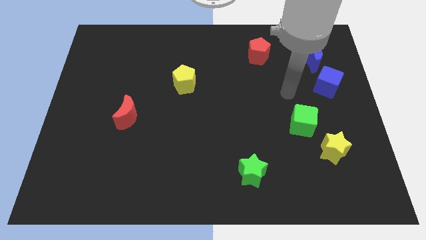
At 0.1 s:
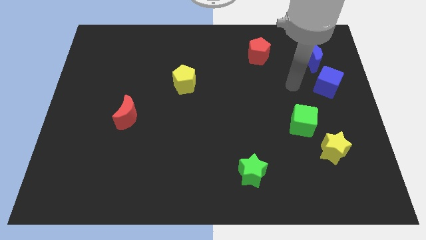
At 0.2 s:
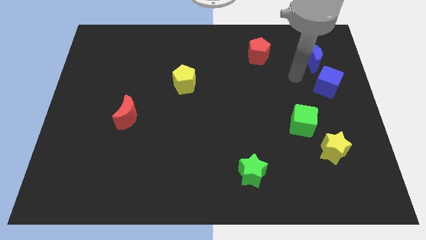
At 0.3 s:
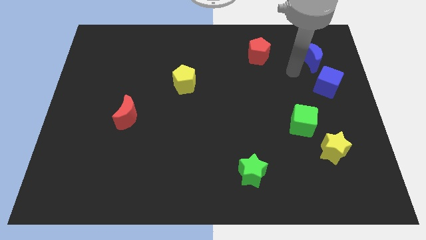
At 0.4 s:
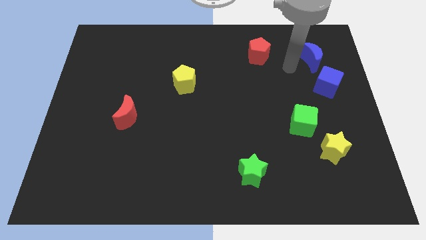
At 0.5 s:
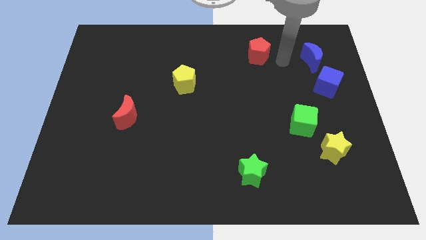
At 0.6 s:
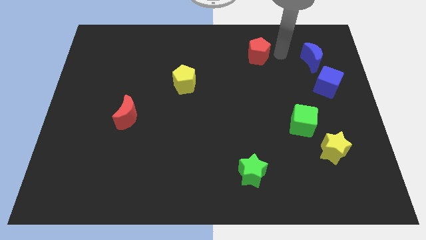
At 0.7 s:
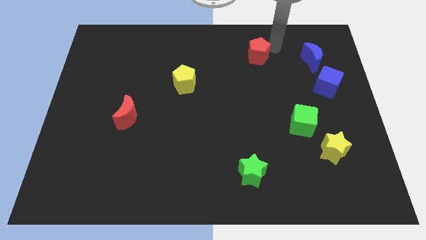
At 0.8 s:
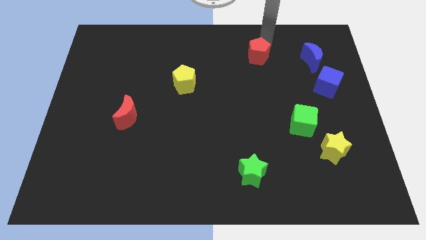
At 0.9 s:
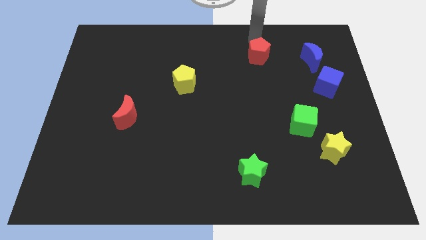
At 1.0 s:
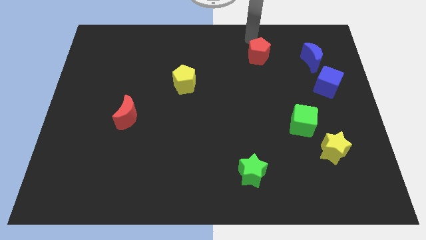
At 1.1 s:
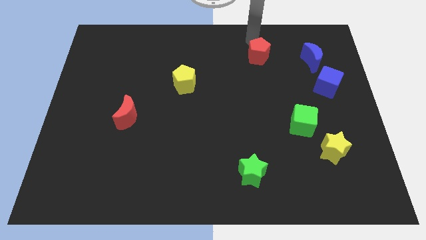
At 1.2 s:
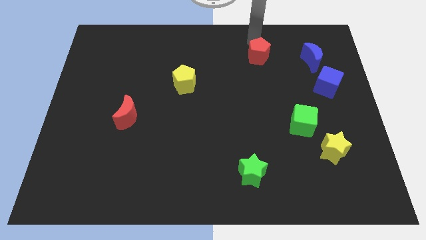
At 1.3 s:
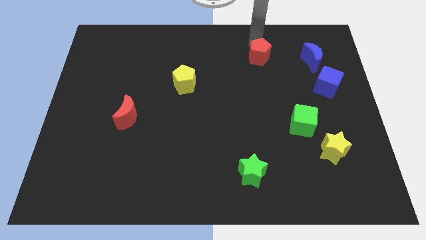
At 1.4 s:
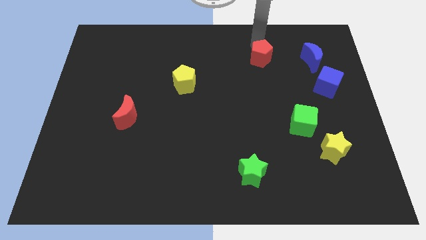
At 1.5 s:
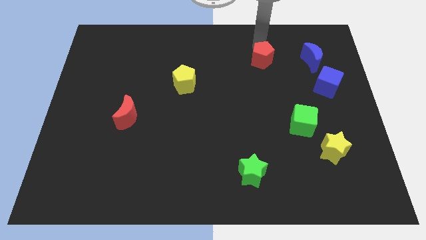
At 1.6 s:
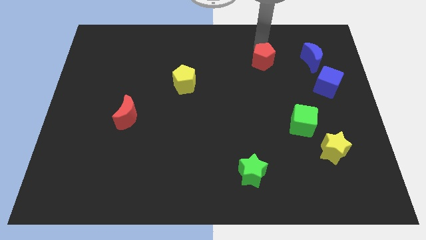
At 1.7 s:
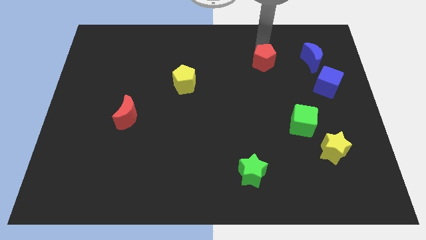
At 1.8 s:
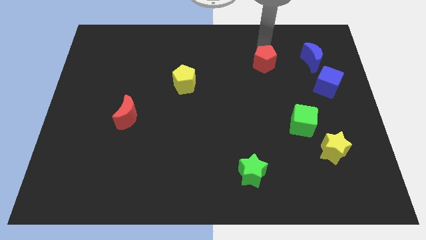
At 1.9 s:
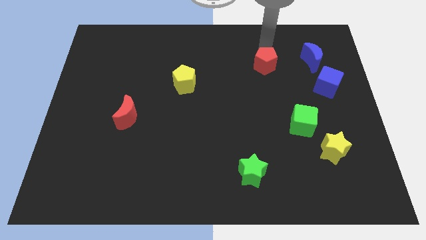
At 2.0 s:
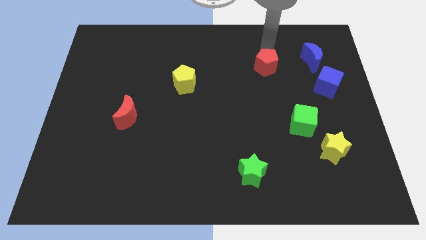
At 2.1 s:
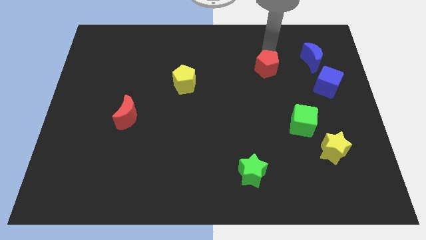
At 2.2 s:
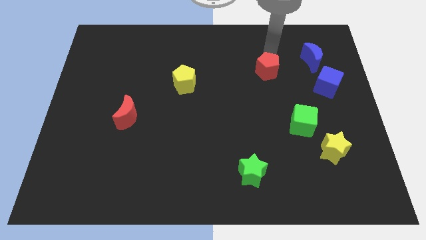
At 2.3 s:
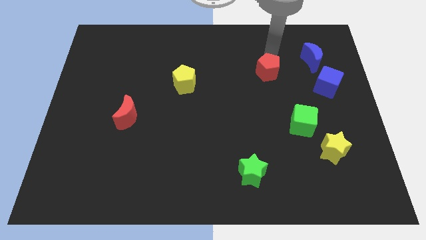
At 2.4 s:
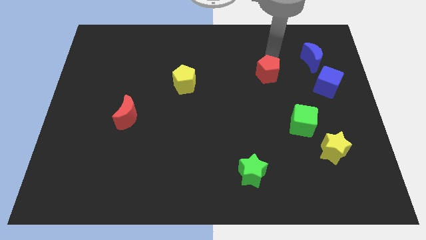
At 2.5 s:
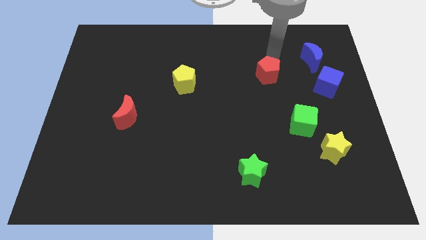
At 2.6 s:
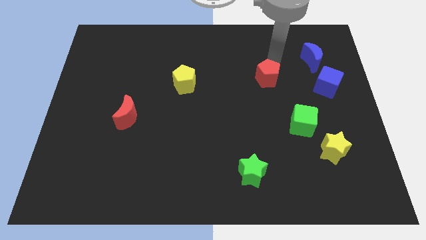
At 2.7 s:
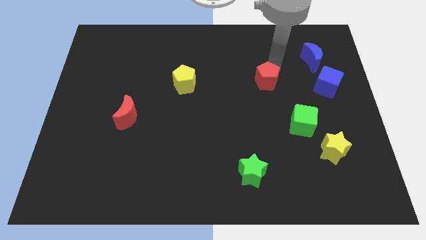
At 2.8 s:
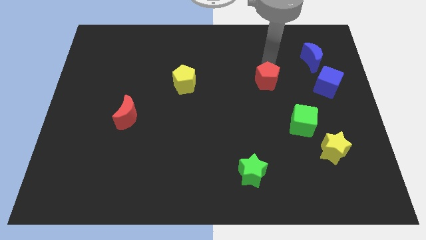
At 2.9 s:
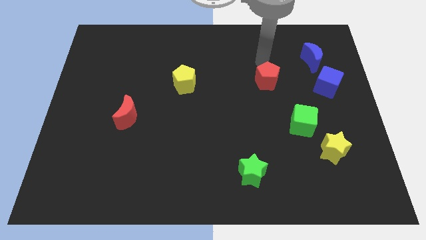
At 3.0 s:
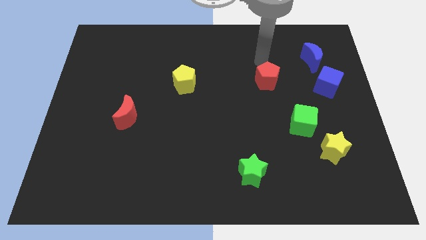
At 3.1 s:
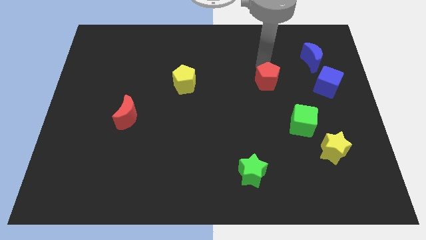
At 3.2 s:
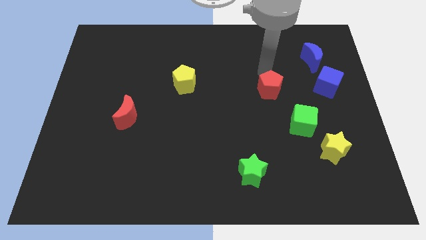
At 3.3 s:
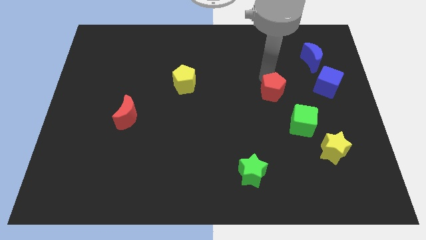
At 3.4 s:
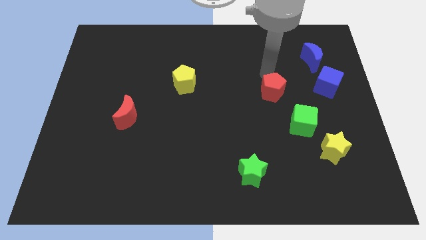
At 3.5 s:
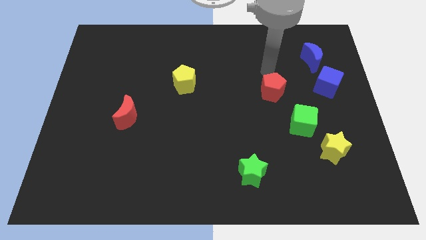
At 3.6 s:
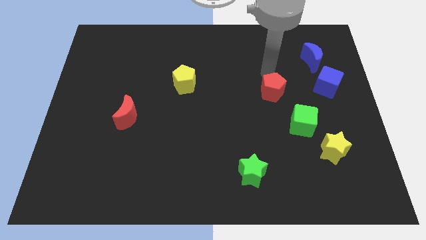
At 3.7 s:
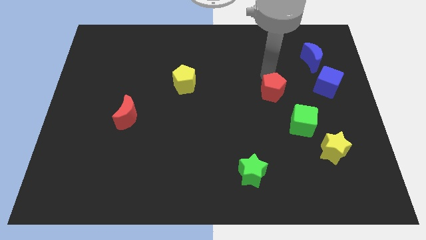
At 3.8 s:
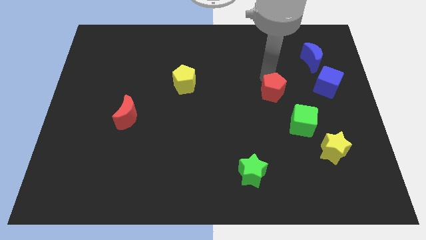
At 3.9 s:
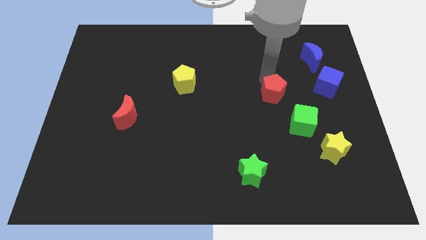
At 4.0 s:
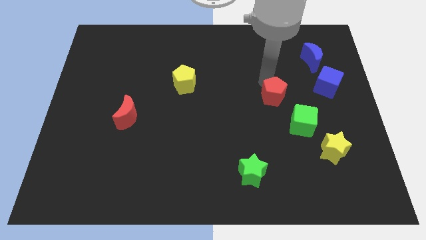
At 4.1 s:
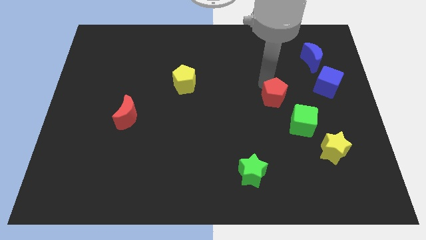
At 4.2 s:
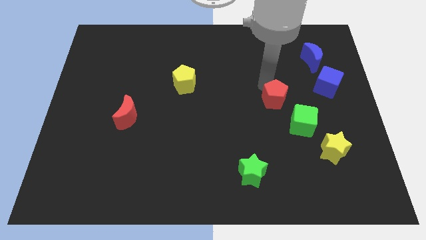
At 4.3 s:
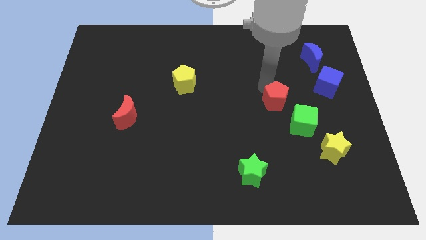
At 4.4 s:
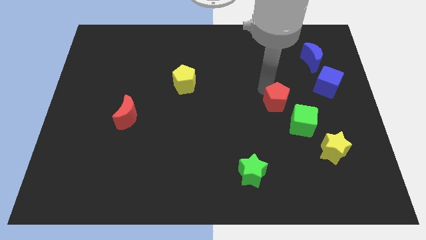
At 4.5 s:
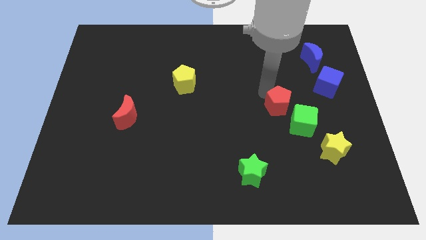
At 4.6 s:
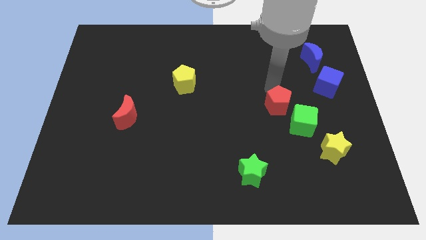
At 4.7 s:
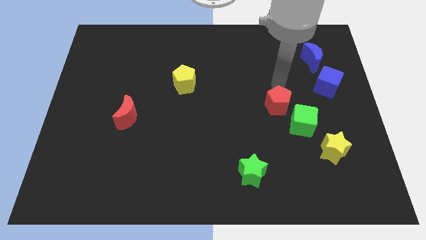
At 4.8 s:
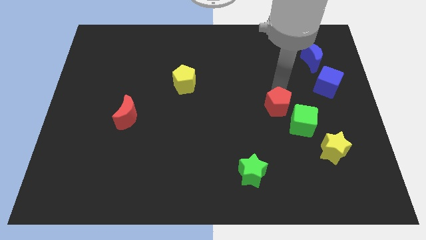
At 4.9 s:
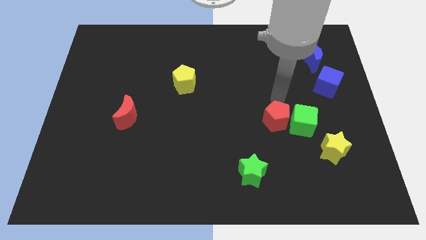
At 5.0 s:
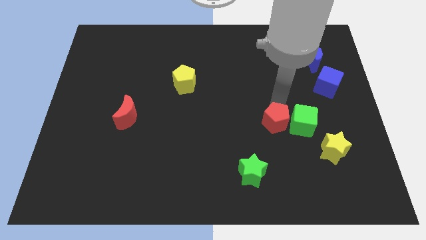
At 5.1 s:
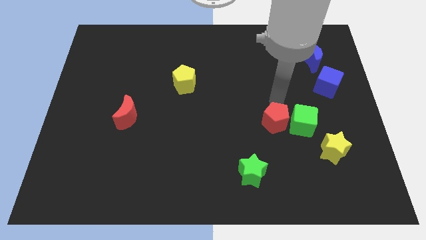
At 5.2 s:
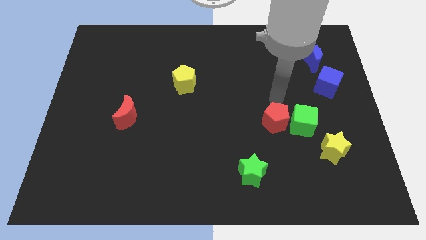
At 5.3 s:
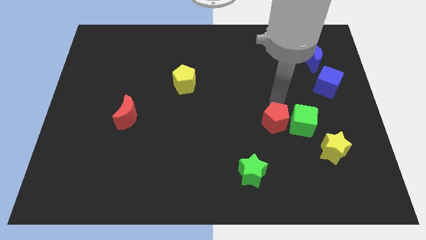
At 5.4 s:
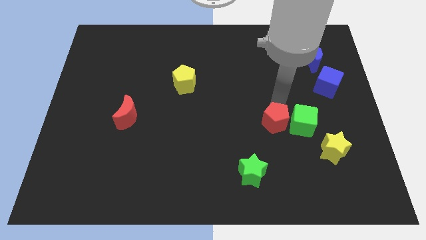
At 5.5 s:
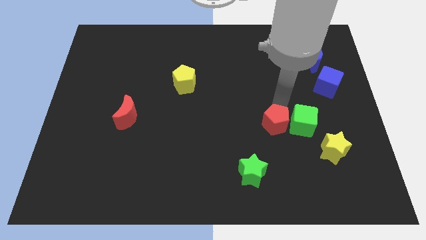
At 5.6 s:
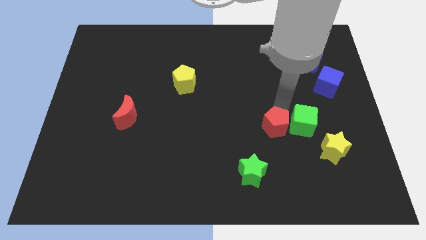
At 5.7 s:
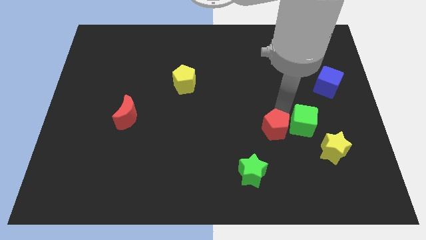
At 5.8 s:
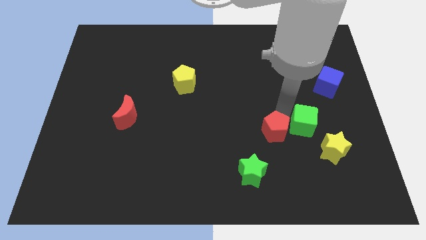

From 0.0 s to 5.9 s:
push the red pentagon to the top right of the green star

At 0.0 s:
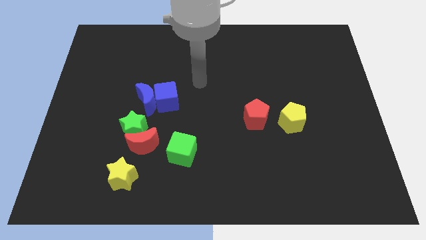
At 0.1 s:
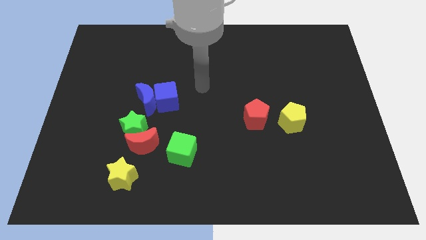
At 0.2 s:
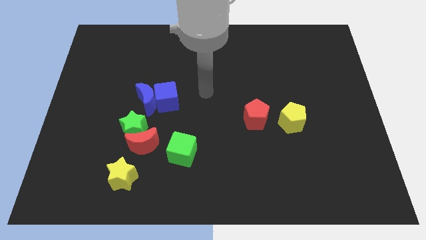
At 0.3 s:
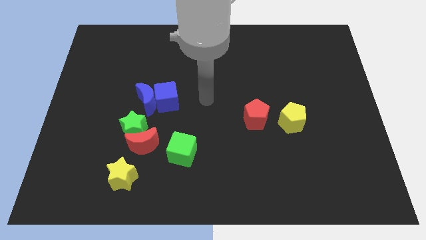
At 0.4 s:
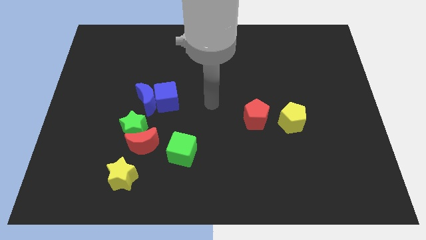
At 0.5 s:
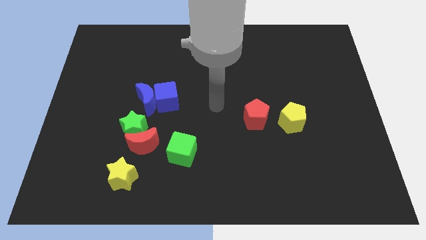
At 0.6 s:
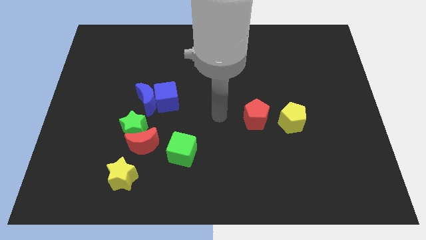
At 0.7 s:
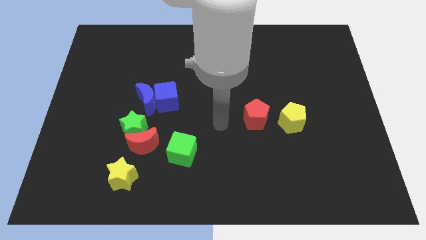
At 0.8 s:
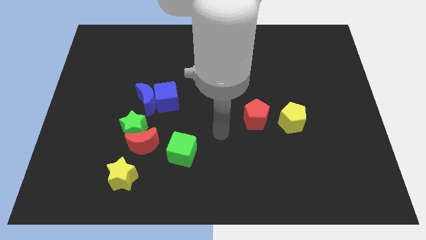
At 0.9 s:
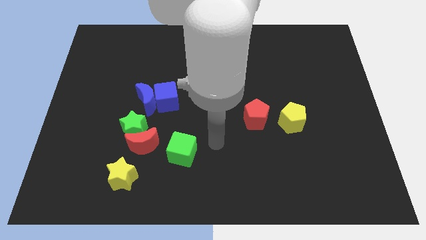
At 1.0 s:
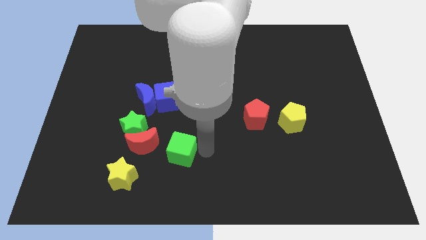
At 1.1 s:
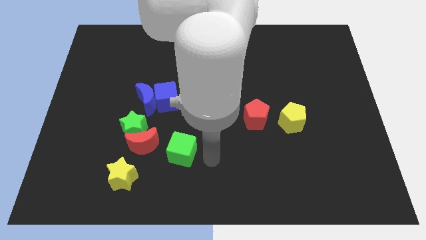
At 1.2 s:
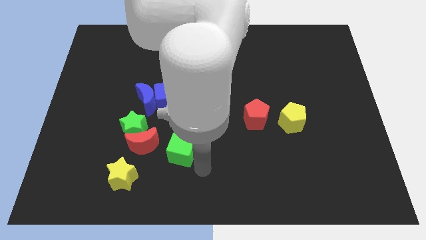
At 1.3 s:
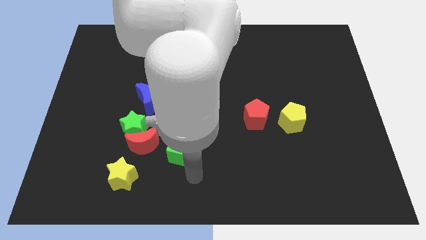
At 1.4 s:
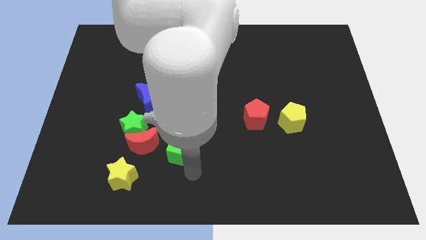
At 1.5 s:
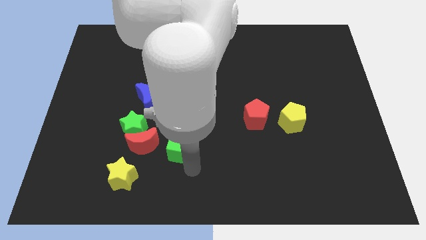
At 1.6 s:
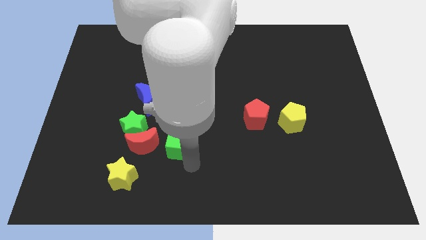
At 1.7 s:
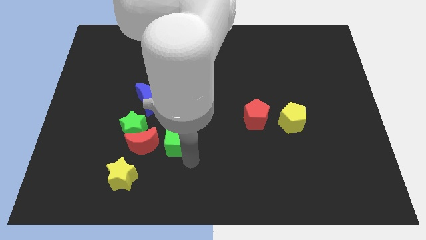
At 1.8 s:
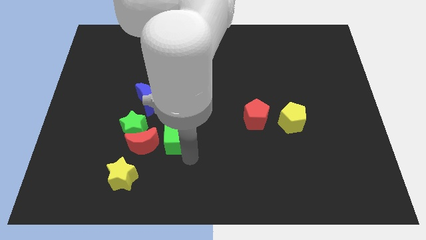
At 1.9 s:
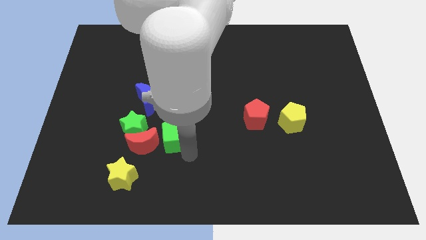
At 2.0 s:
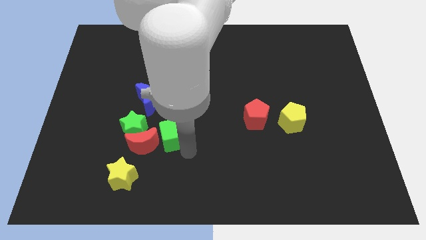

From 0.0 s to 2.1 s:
slide the green cube to the bottom right of the blue moon
